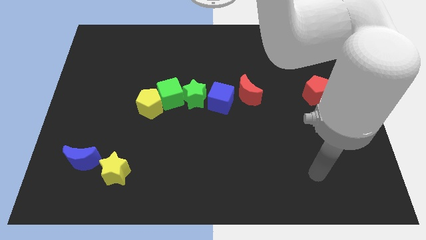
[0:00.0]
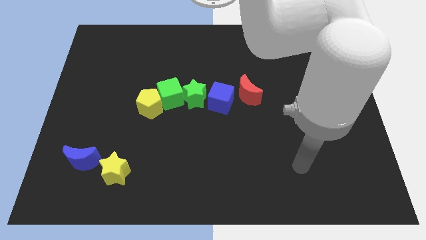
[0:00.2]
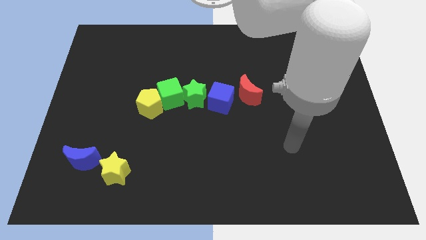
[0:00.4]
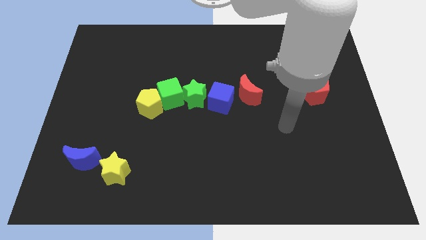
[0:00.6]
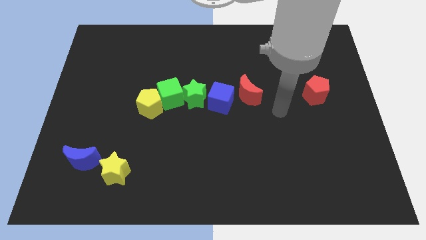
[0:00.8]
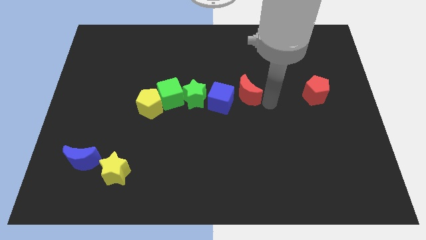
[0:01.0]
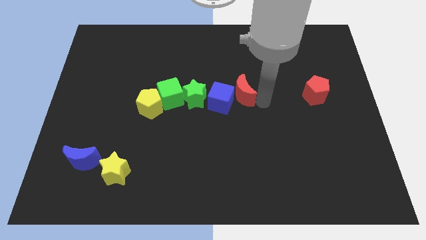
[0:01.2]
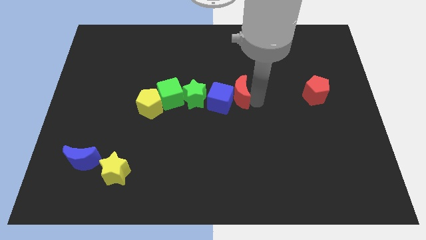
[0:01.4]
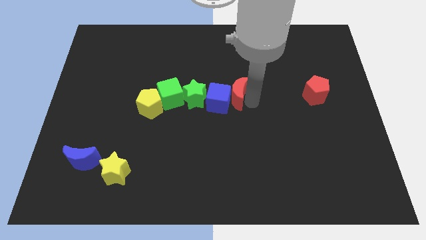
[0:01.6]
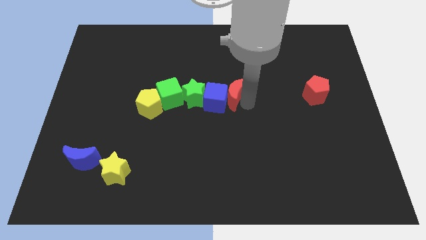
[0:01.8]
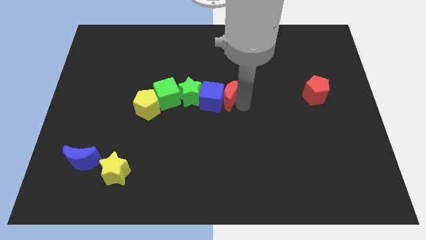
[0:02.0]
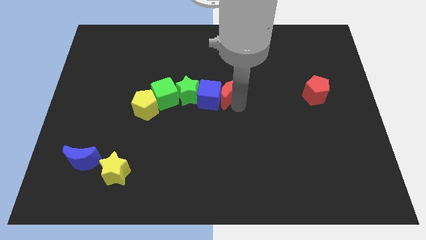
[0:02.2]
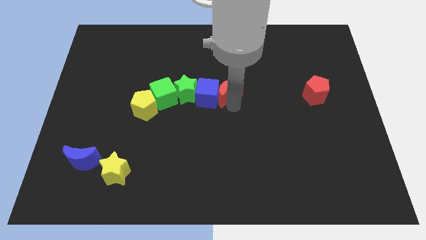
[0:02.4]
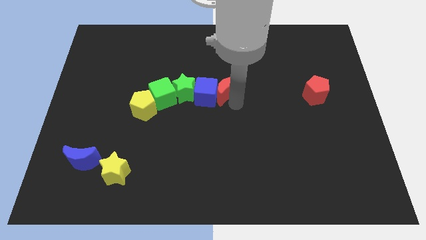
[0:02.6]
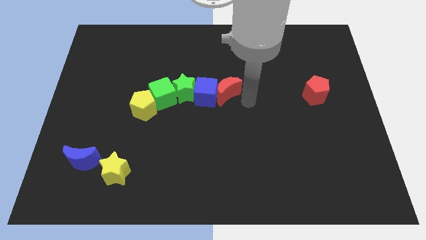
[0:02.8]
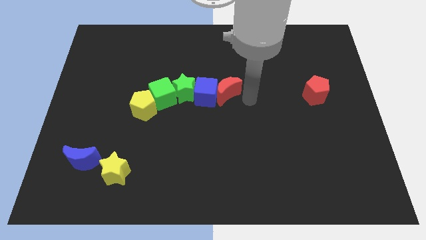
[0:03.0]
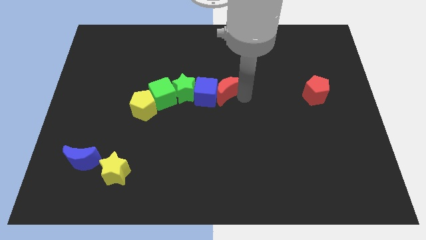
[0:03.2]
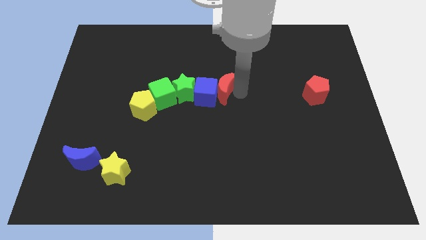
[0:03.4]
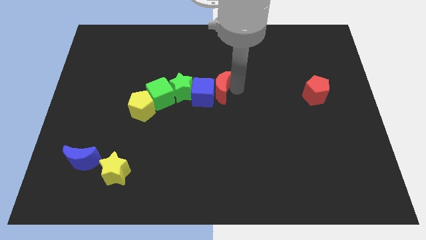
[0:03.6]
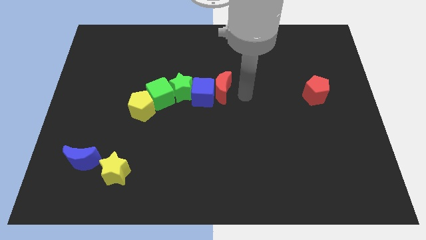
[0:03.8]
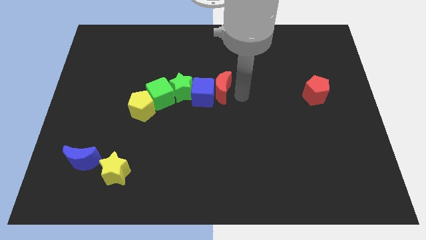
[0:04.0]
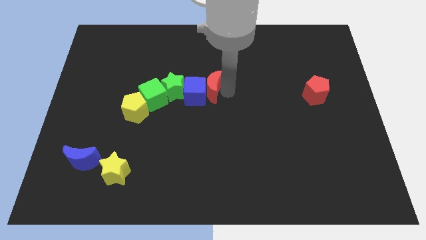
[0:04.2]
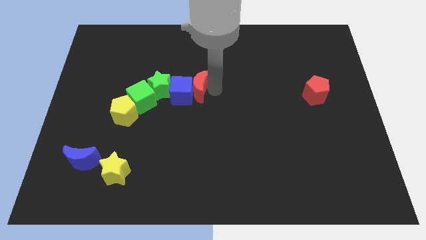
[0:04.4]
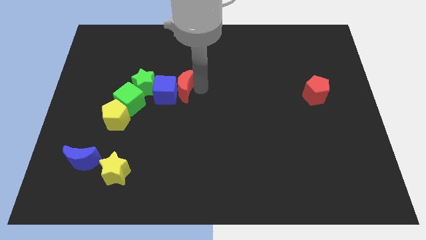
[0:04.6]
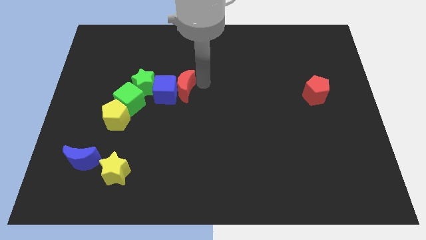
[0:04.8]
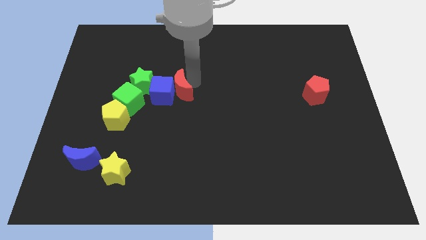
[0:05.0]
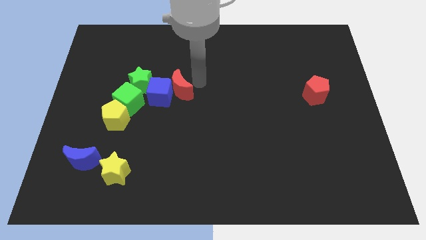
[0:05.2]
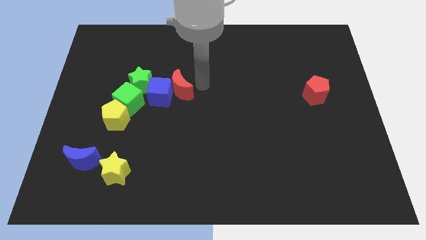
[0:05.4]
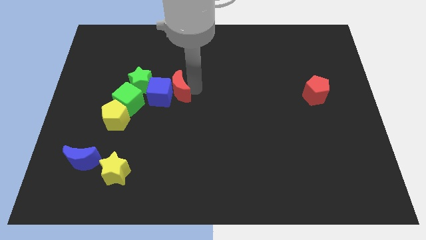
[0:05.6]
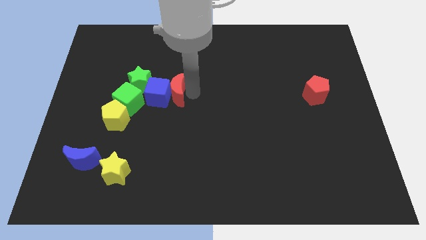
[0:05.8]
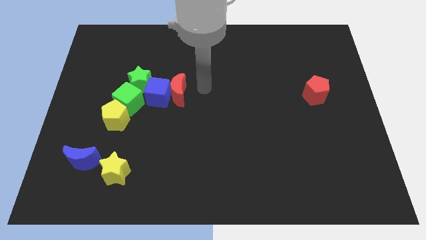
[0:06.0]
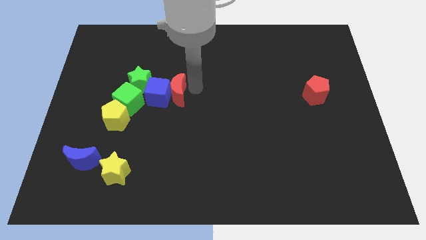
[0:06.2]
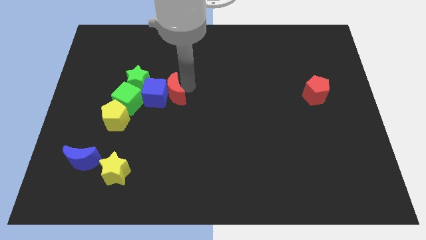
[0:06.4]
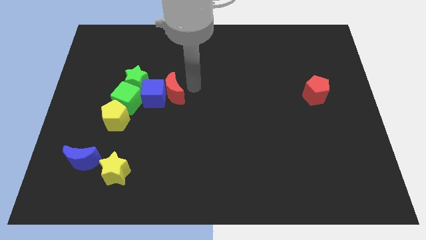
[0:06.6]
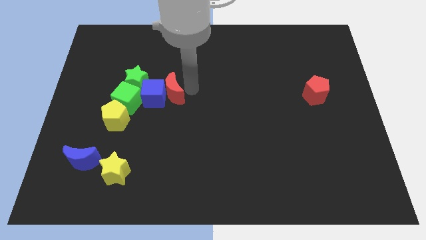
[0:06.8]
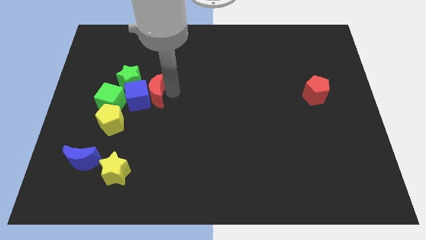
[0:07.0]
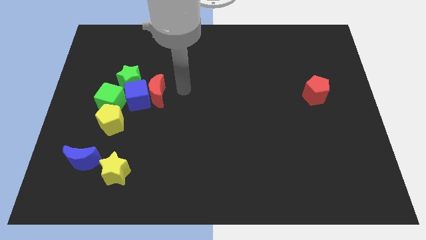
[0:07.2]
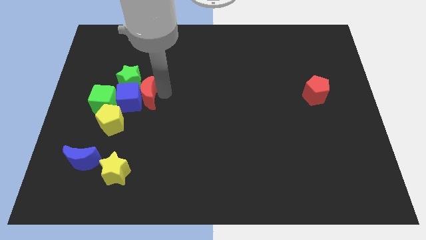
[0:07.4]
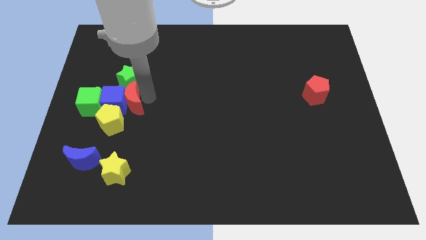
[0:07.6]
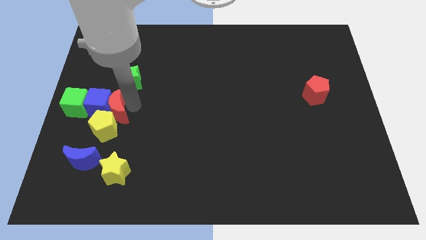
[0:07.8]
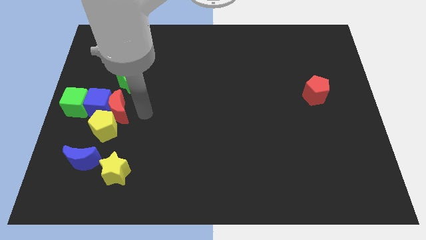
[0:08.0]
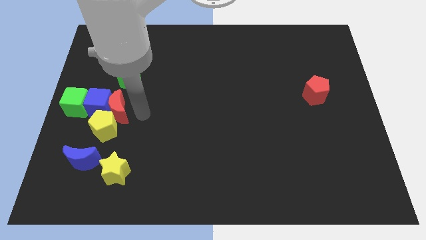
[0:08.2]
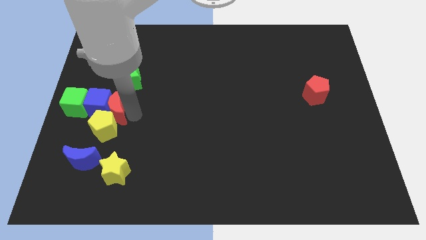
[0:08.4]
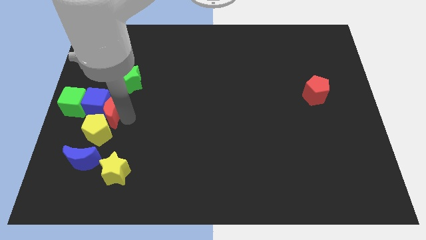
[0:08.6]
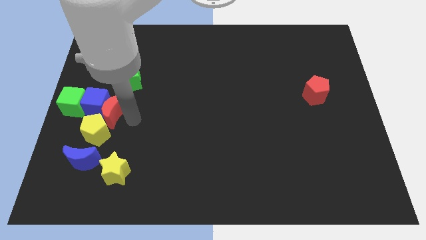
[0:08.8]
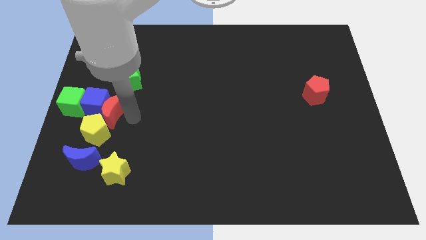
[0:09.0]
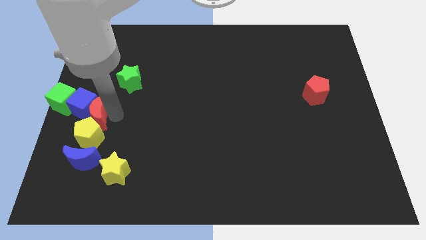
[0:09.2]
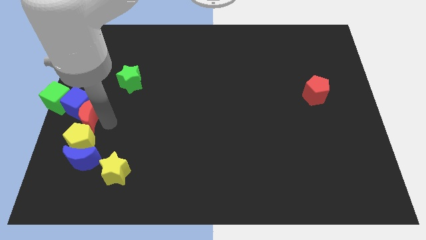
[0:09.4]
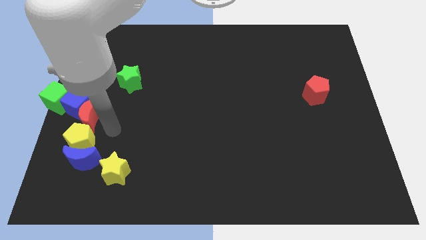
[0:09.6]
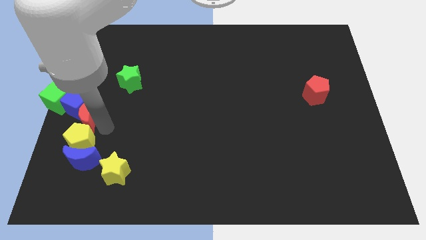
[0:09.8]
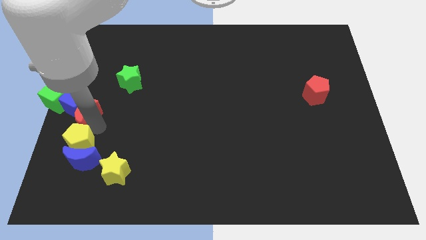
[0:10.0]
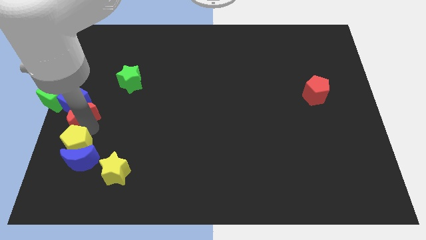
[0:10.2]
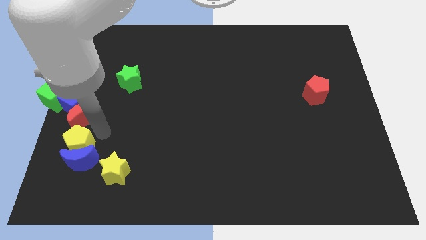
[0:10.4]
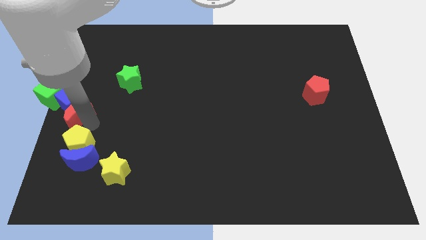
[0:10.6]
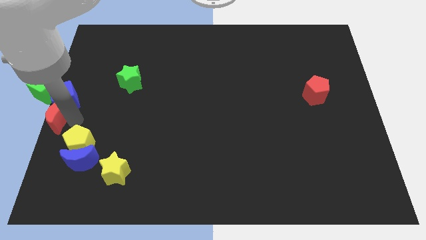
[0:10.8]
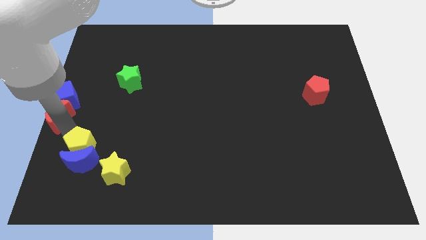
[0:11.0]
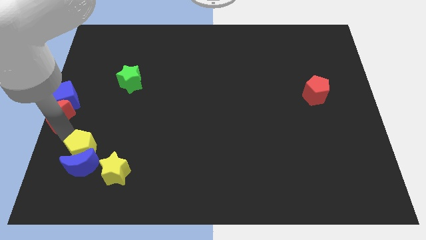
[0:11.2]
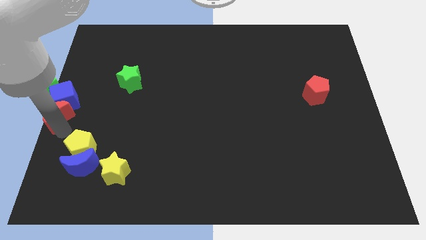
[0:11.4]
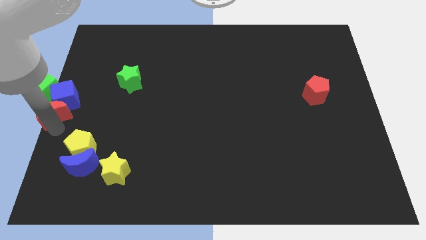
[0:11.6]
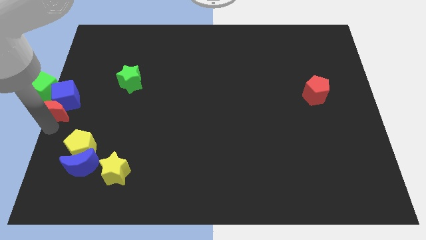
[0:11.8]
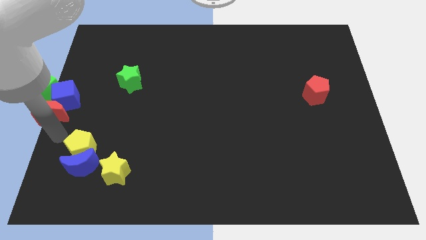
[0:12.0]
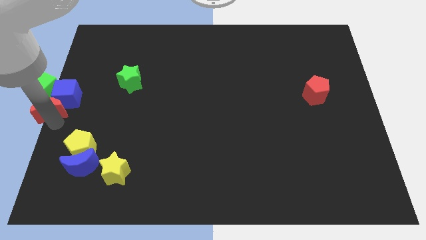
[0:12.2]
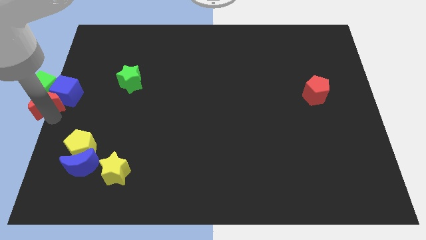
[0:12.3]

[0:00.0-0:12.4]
slide the red moon to the green cube

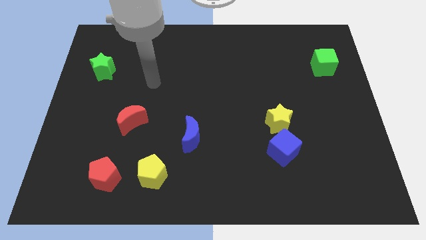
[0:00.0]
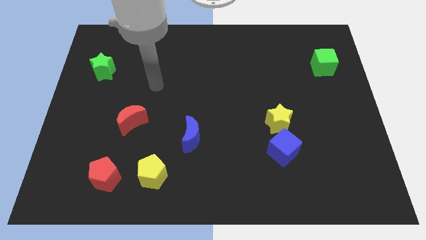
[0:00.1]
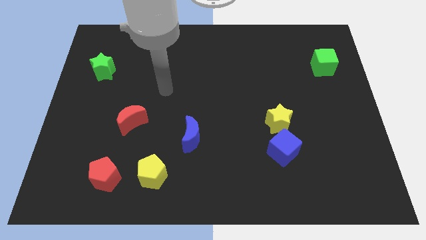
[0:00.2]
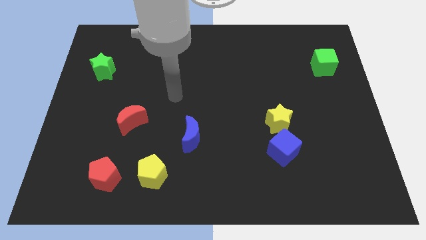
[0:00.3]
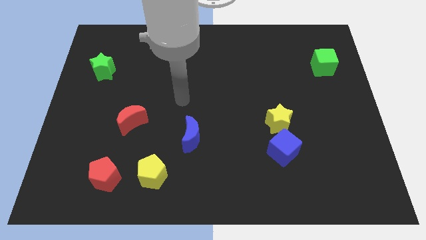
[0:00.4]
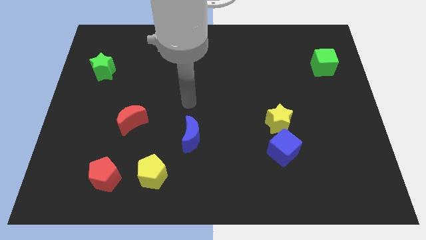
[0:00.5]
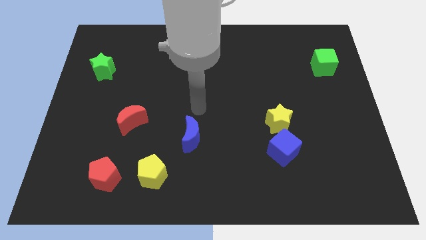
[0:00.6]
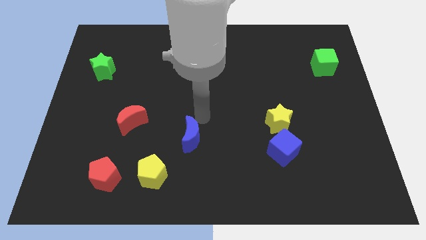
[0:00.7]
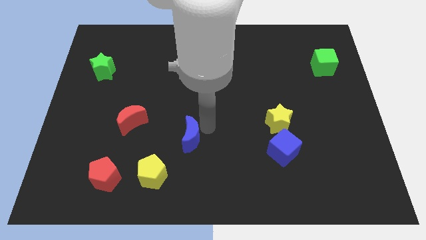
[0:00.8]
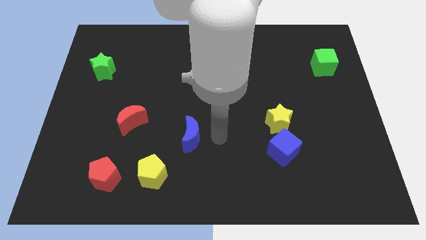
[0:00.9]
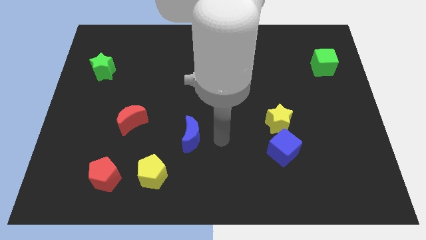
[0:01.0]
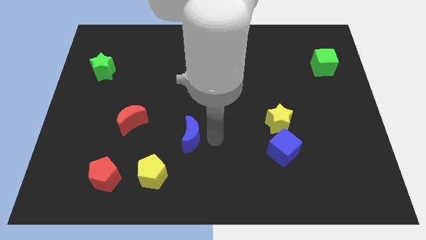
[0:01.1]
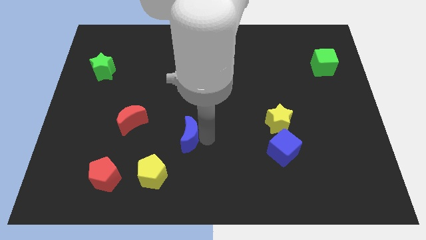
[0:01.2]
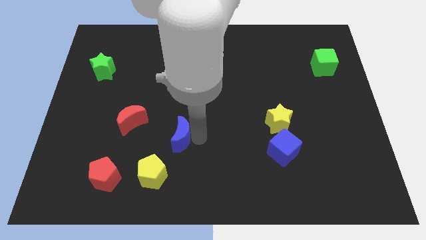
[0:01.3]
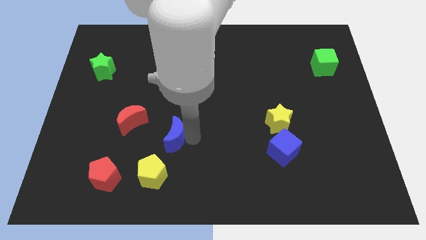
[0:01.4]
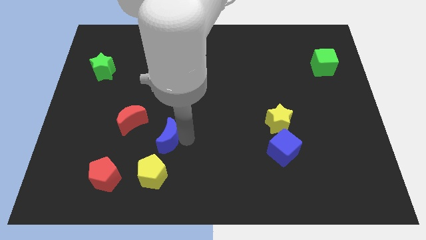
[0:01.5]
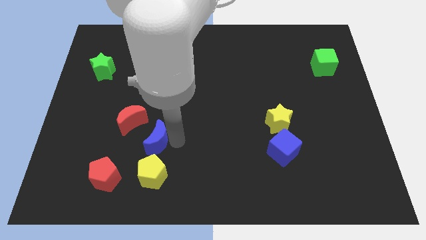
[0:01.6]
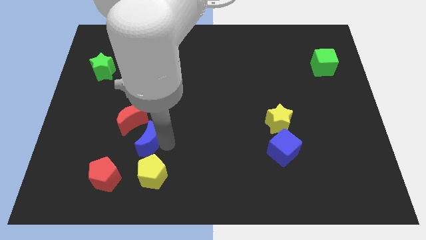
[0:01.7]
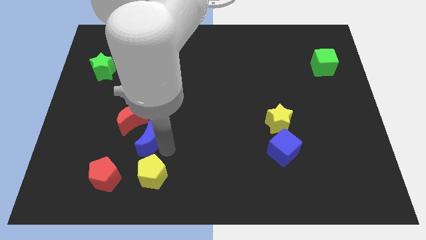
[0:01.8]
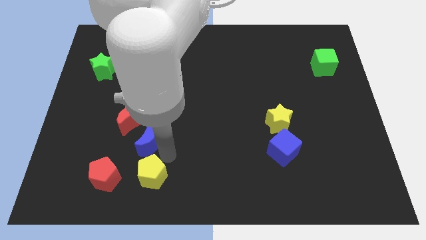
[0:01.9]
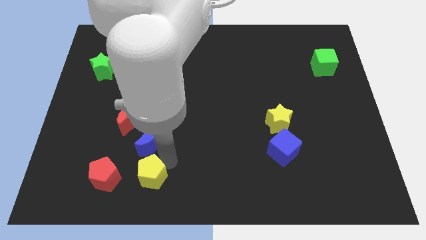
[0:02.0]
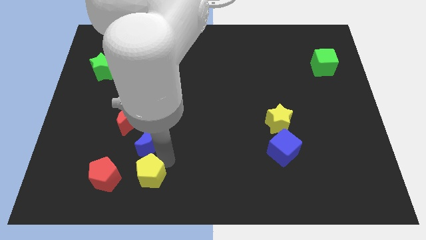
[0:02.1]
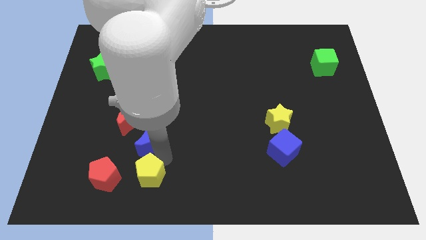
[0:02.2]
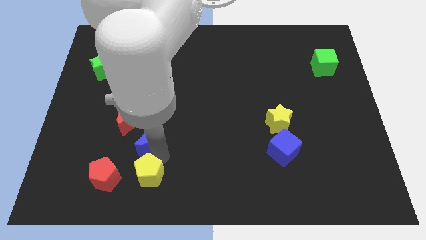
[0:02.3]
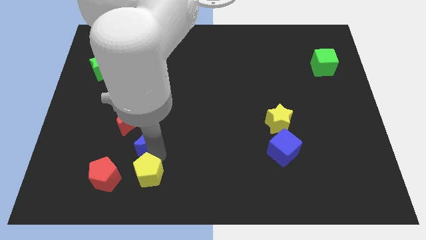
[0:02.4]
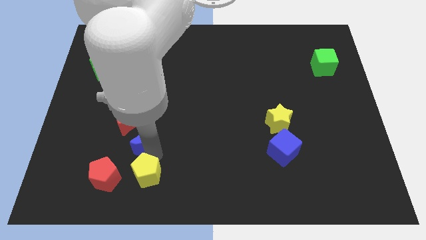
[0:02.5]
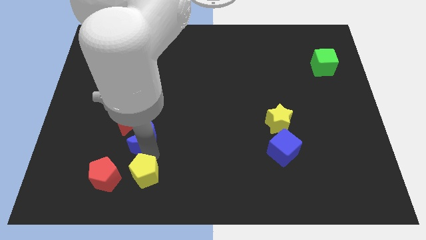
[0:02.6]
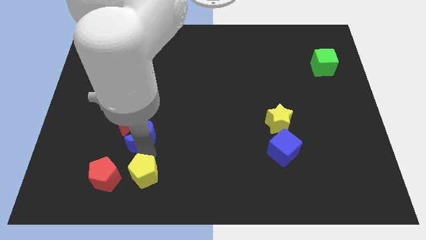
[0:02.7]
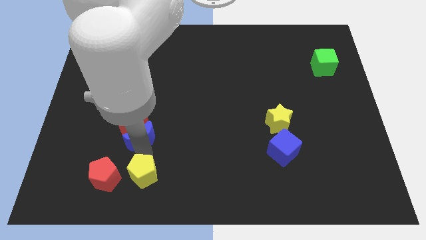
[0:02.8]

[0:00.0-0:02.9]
put the blue moon towards the red moon
